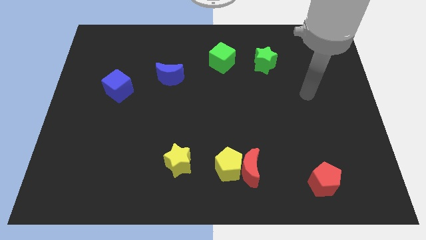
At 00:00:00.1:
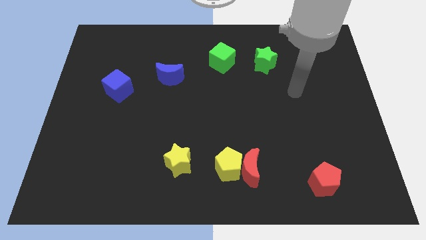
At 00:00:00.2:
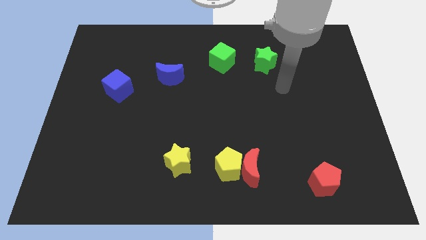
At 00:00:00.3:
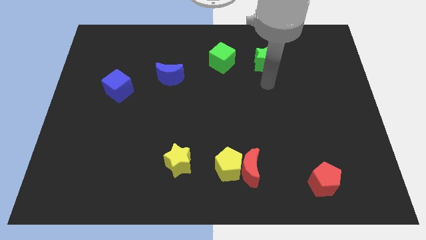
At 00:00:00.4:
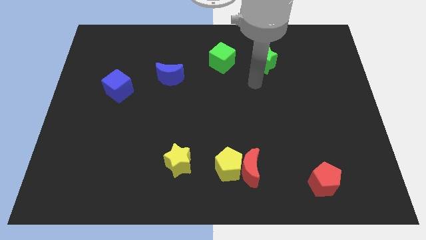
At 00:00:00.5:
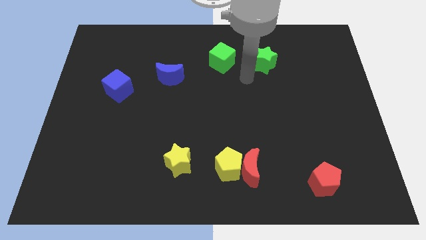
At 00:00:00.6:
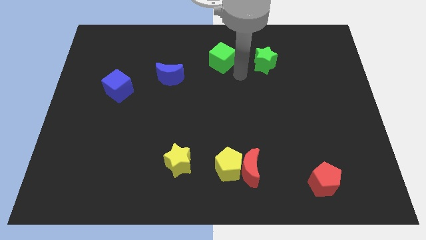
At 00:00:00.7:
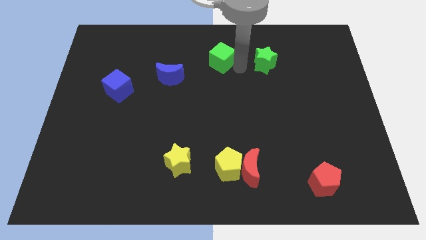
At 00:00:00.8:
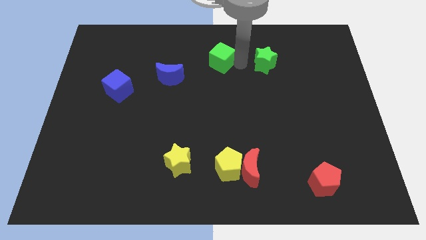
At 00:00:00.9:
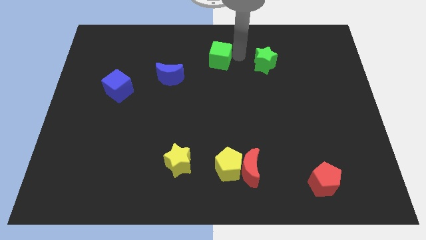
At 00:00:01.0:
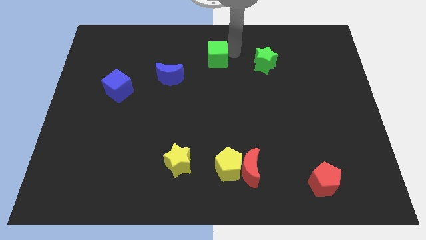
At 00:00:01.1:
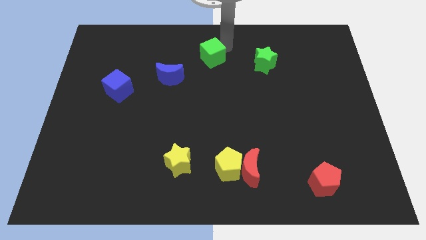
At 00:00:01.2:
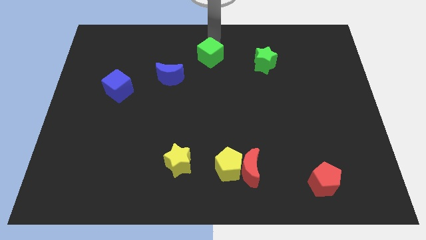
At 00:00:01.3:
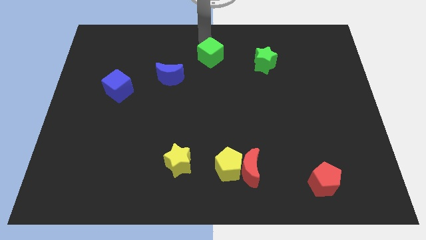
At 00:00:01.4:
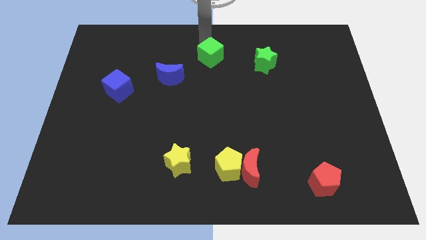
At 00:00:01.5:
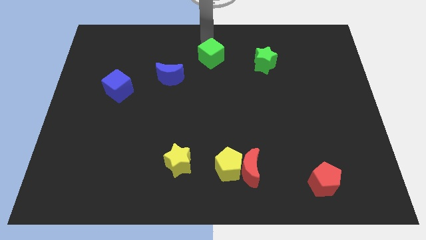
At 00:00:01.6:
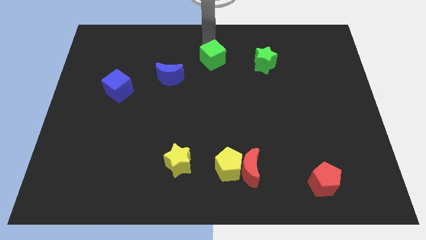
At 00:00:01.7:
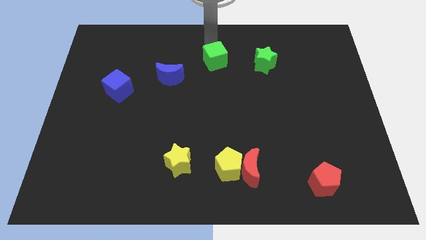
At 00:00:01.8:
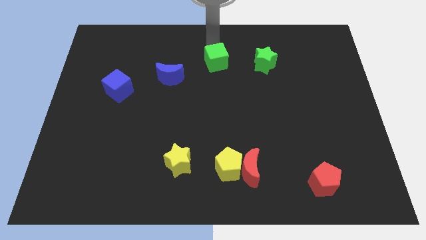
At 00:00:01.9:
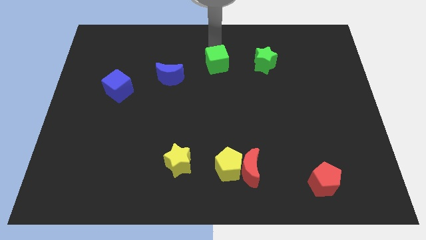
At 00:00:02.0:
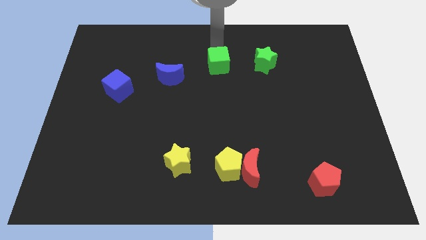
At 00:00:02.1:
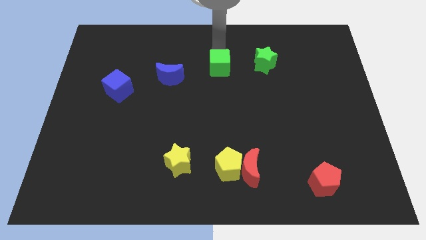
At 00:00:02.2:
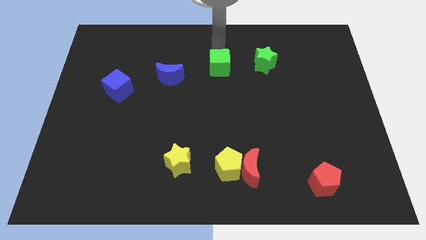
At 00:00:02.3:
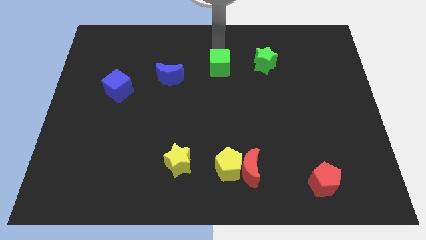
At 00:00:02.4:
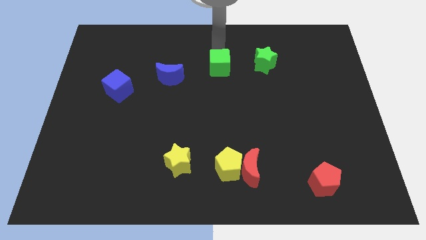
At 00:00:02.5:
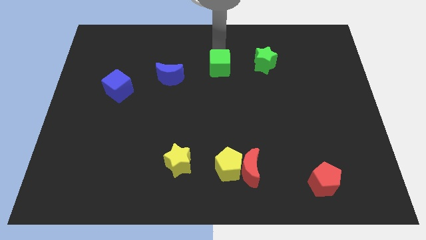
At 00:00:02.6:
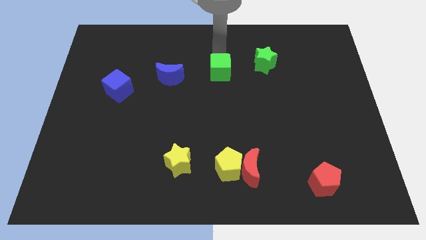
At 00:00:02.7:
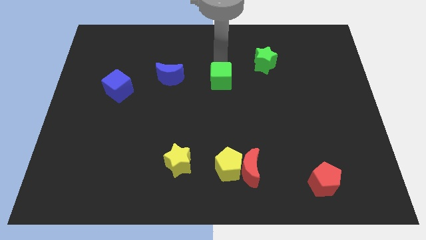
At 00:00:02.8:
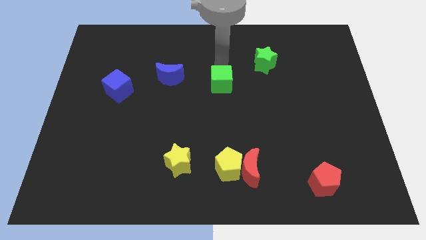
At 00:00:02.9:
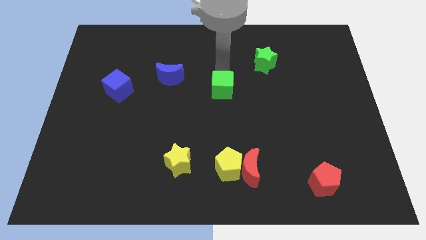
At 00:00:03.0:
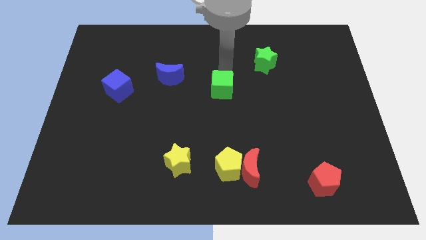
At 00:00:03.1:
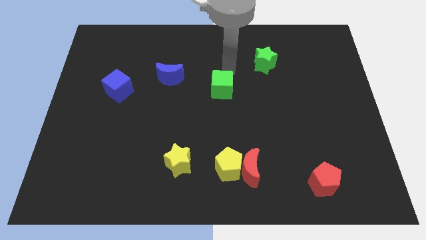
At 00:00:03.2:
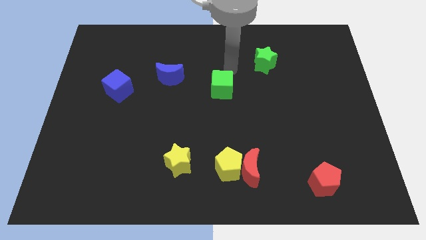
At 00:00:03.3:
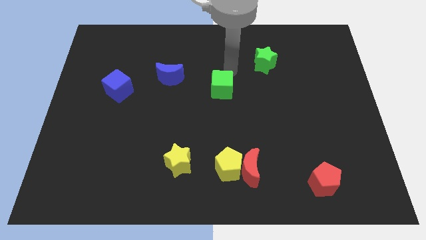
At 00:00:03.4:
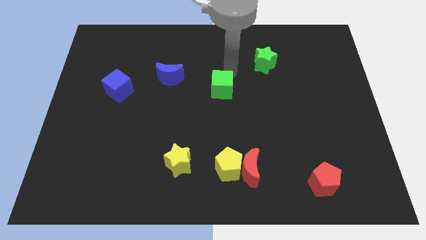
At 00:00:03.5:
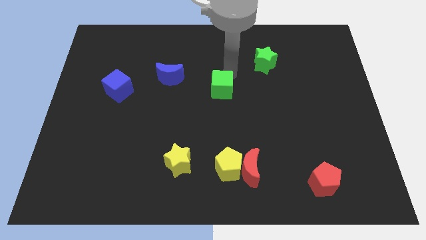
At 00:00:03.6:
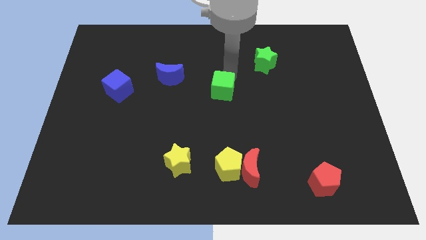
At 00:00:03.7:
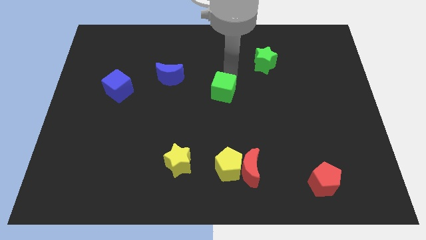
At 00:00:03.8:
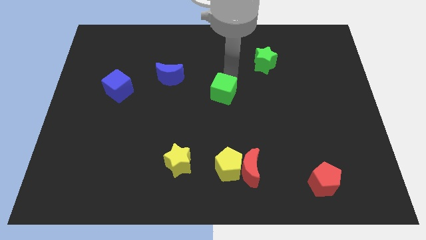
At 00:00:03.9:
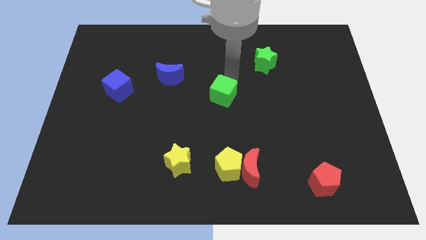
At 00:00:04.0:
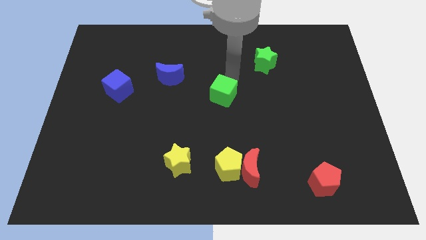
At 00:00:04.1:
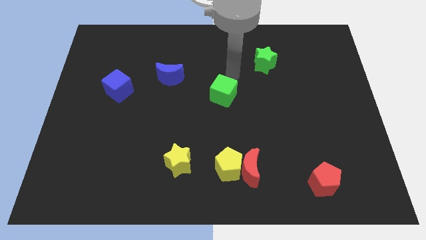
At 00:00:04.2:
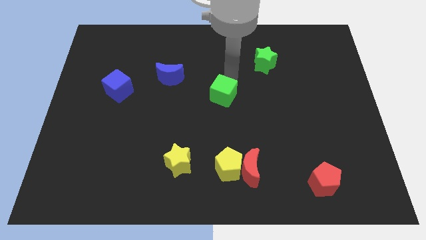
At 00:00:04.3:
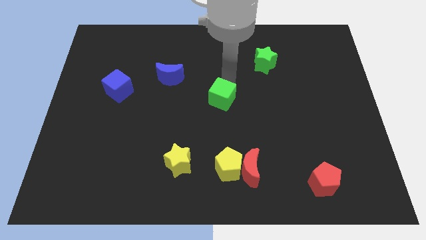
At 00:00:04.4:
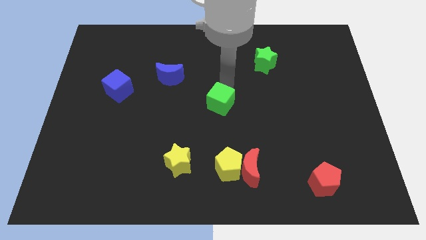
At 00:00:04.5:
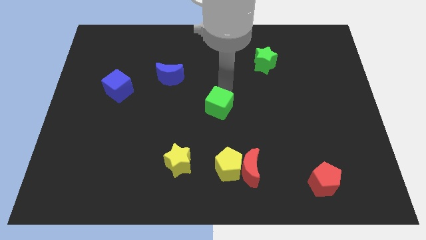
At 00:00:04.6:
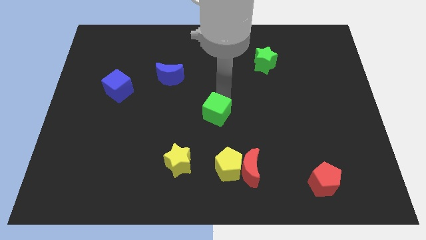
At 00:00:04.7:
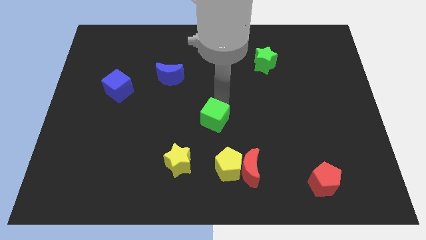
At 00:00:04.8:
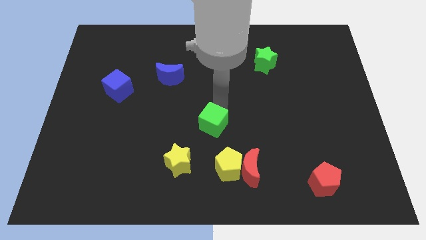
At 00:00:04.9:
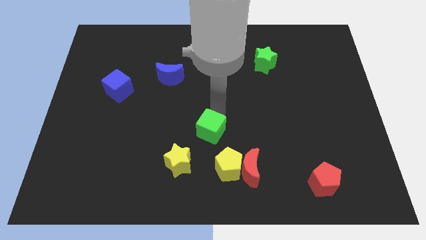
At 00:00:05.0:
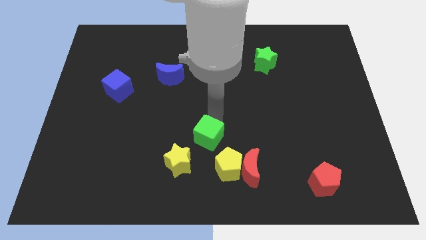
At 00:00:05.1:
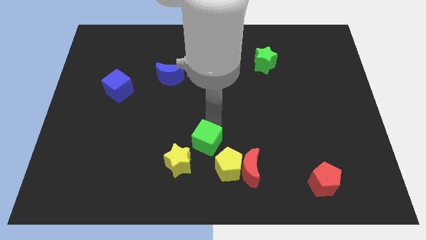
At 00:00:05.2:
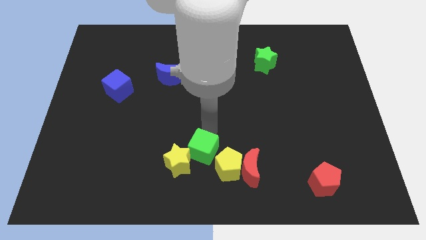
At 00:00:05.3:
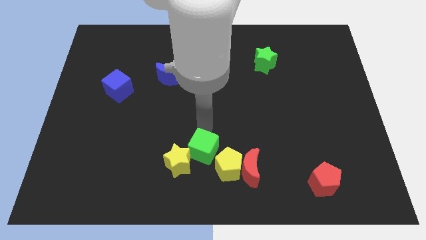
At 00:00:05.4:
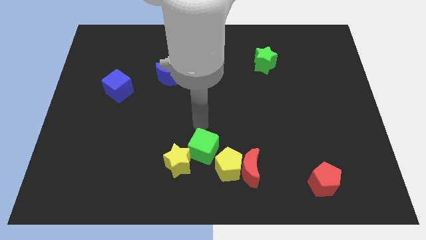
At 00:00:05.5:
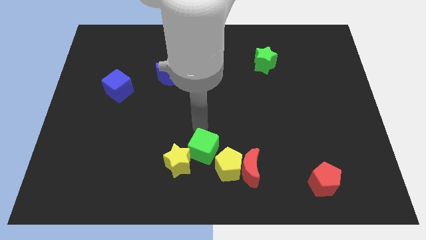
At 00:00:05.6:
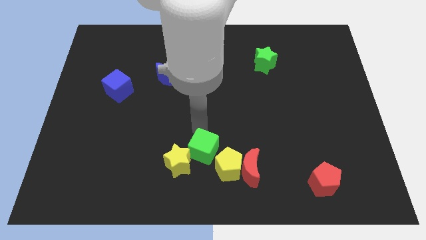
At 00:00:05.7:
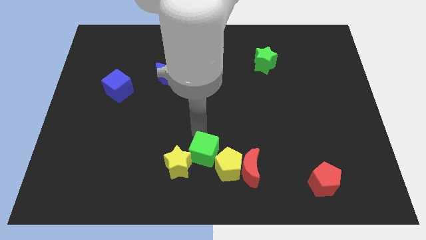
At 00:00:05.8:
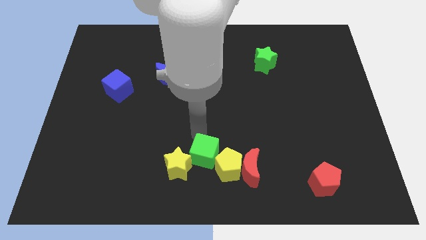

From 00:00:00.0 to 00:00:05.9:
move the green cube to the bottom

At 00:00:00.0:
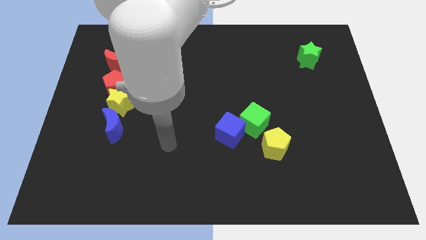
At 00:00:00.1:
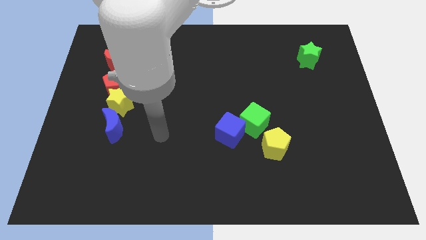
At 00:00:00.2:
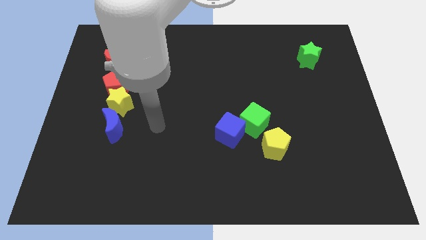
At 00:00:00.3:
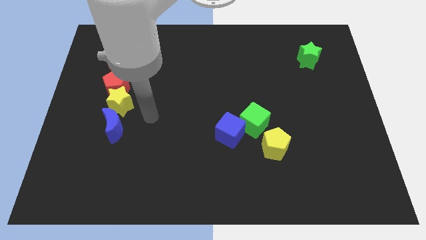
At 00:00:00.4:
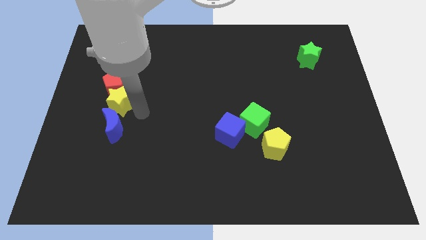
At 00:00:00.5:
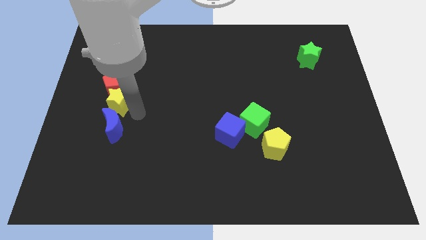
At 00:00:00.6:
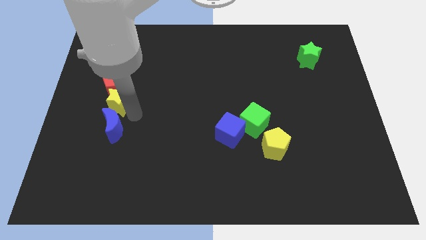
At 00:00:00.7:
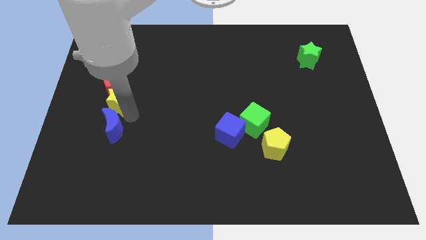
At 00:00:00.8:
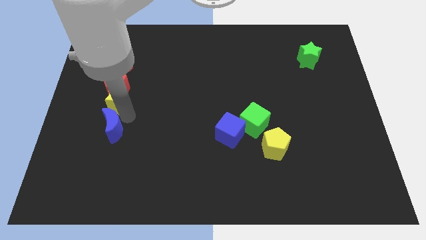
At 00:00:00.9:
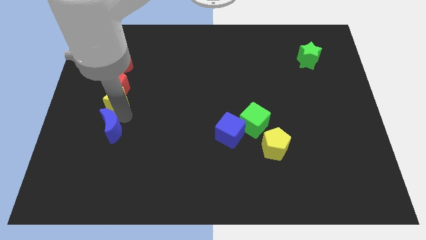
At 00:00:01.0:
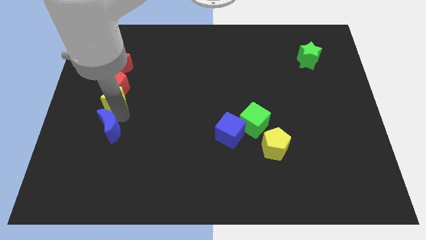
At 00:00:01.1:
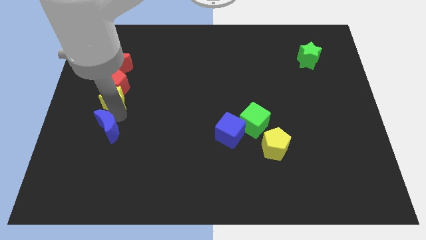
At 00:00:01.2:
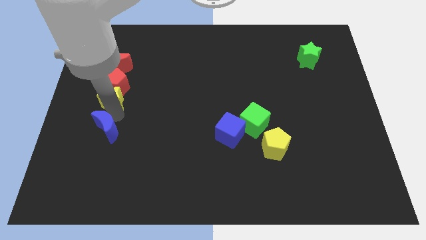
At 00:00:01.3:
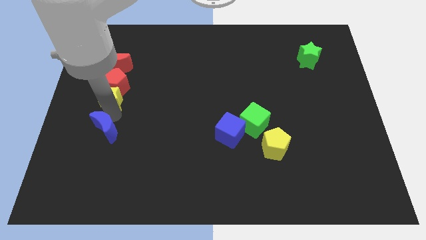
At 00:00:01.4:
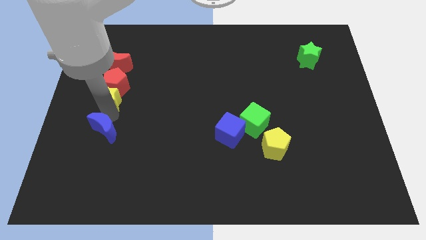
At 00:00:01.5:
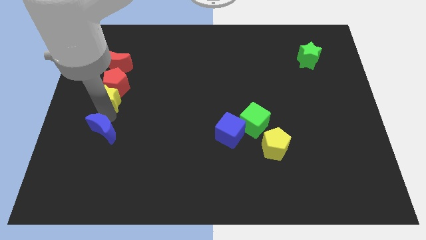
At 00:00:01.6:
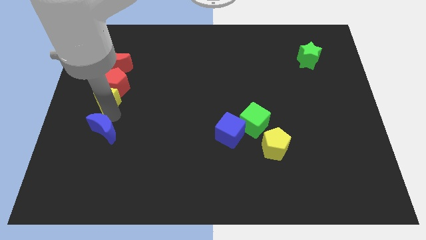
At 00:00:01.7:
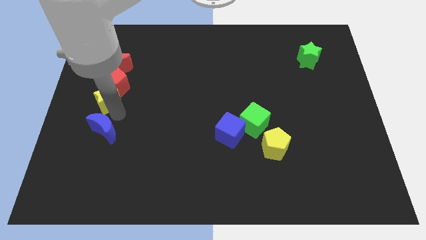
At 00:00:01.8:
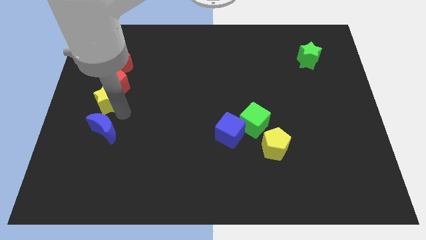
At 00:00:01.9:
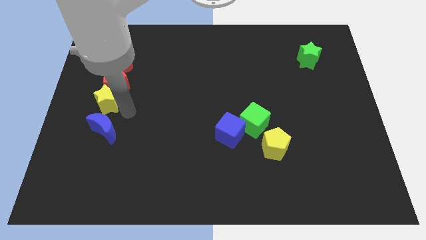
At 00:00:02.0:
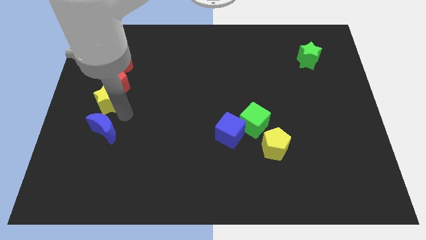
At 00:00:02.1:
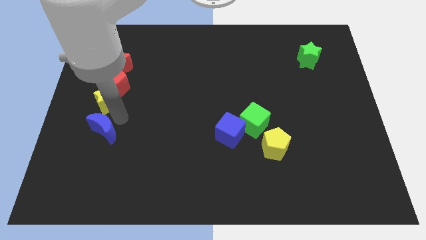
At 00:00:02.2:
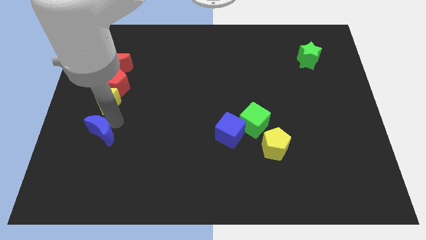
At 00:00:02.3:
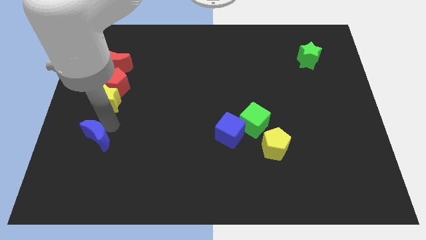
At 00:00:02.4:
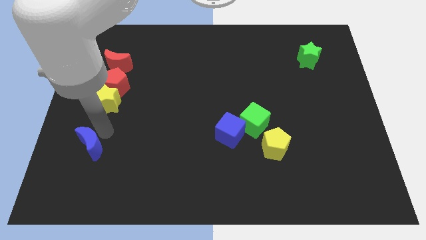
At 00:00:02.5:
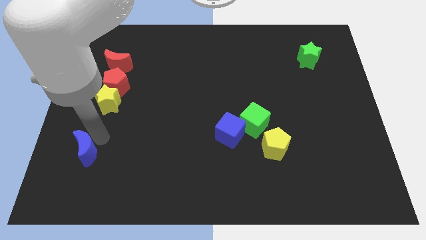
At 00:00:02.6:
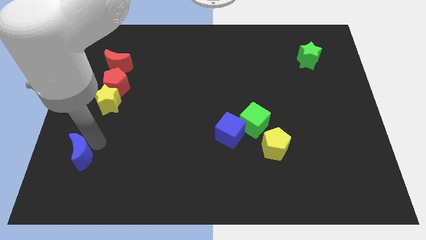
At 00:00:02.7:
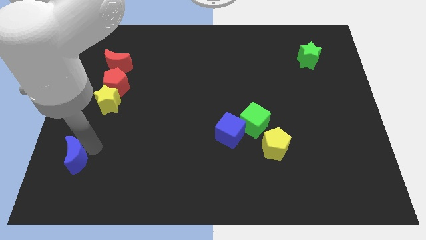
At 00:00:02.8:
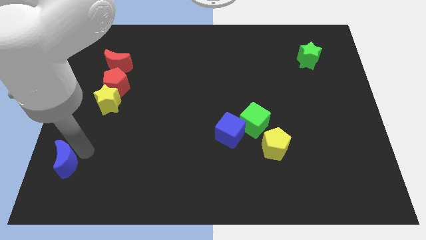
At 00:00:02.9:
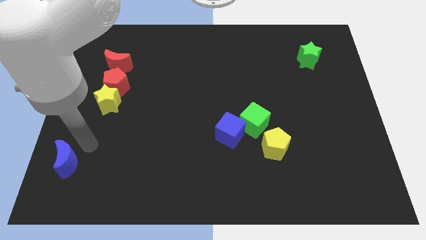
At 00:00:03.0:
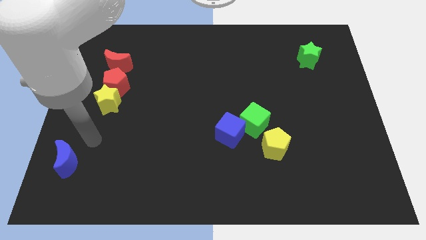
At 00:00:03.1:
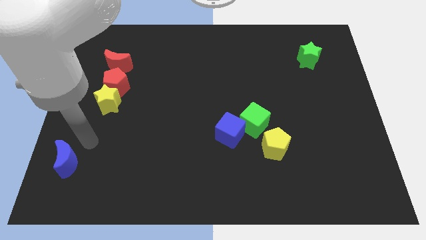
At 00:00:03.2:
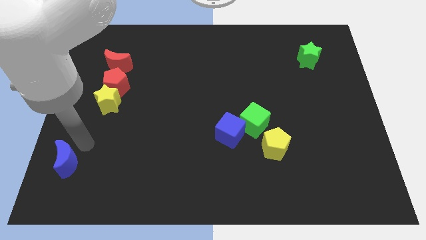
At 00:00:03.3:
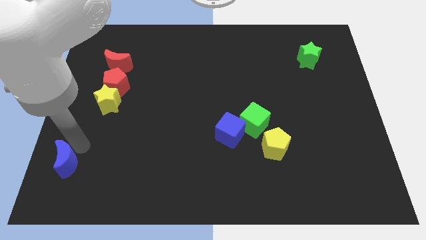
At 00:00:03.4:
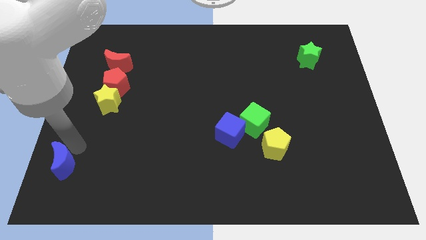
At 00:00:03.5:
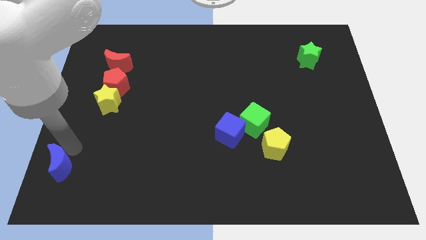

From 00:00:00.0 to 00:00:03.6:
move the blue moon to the bottom left
